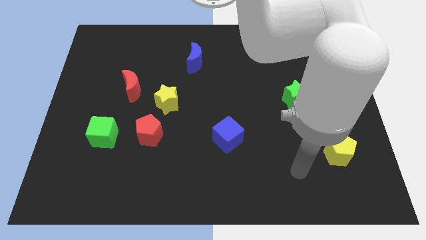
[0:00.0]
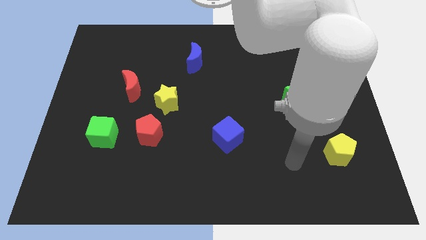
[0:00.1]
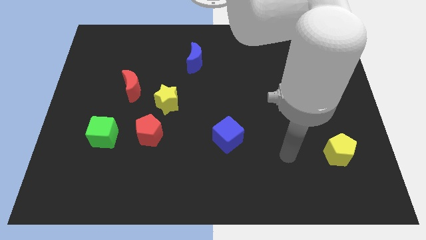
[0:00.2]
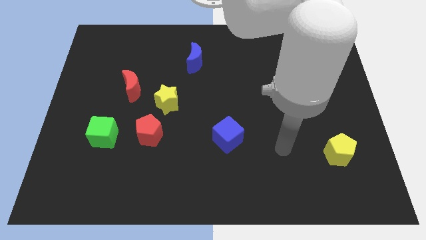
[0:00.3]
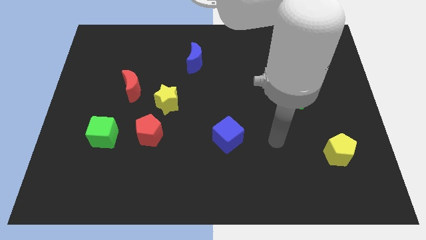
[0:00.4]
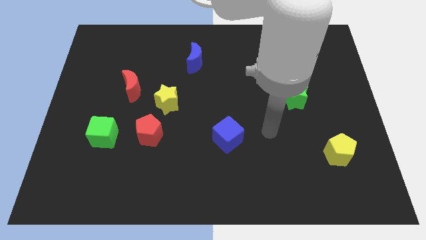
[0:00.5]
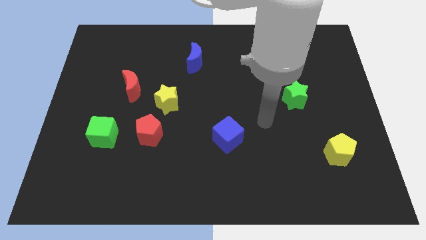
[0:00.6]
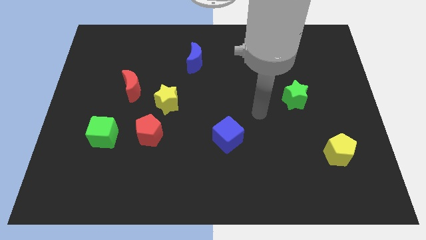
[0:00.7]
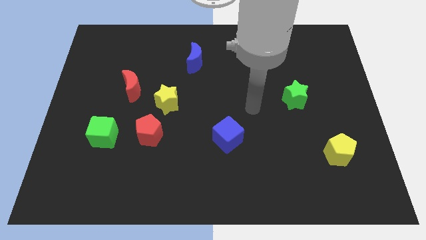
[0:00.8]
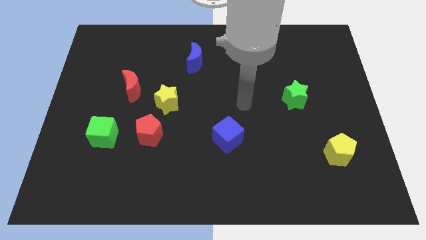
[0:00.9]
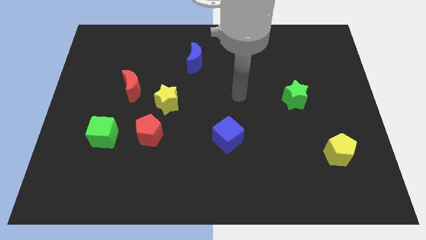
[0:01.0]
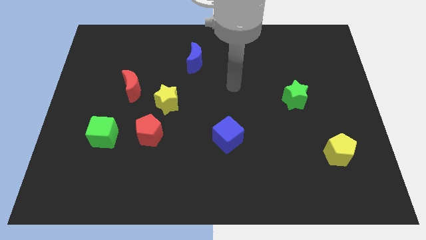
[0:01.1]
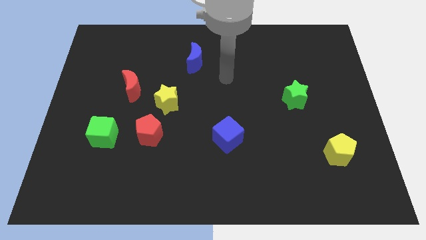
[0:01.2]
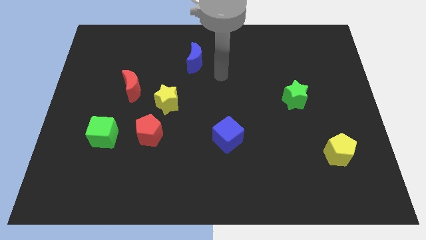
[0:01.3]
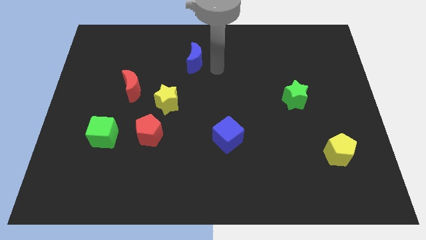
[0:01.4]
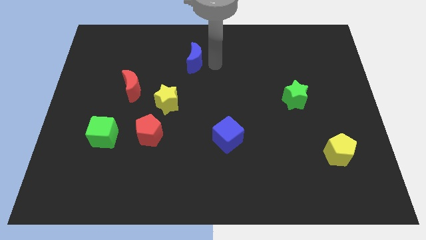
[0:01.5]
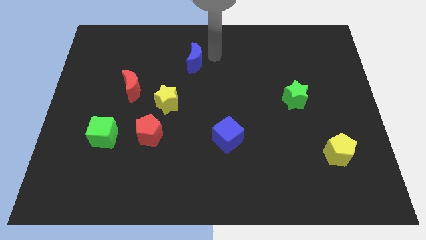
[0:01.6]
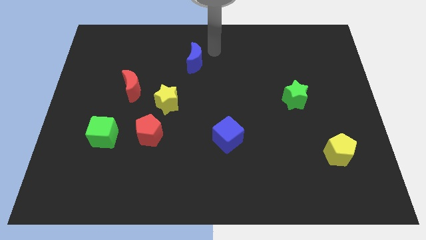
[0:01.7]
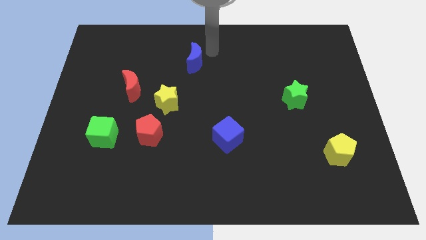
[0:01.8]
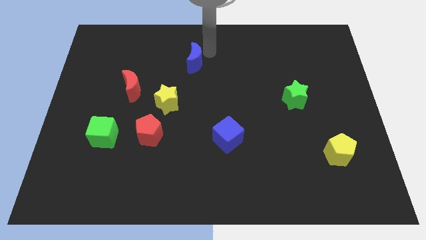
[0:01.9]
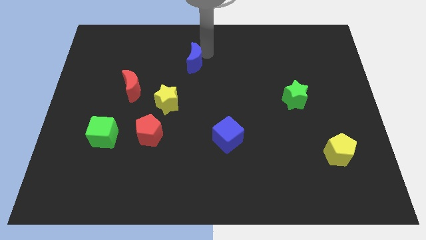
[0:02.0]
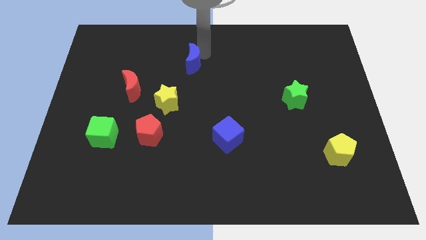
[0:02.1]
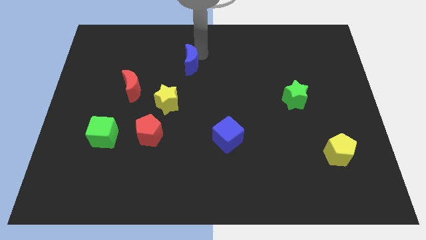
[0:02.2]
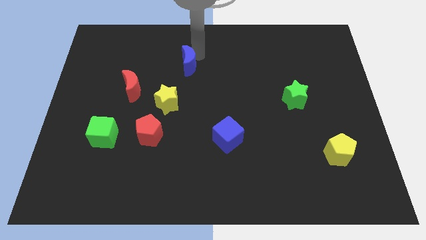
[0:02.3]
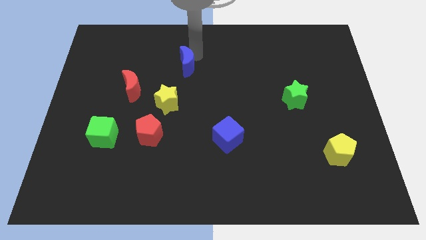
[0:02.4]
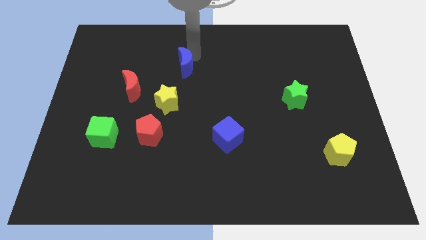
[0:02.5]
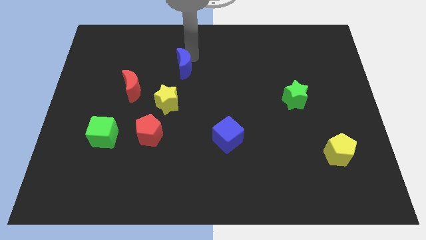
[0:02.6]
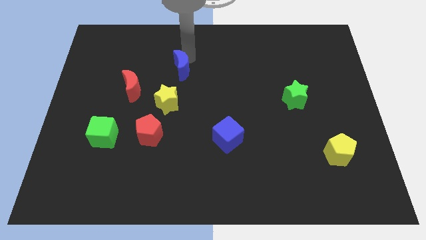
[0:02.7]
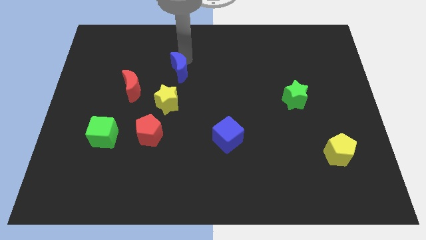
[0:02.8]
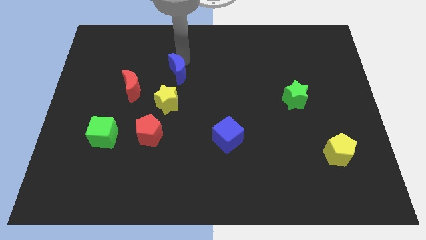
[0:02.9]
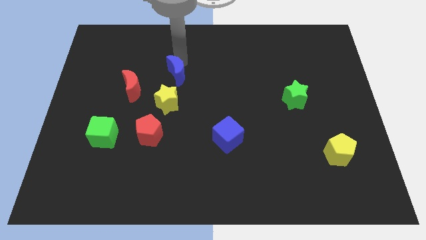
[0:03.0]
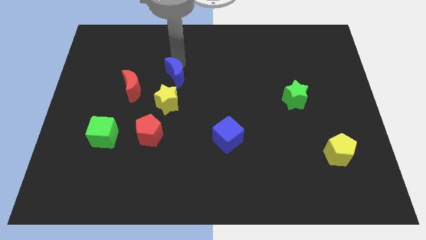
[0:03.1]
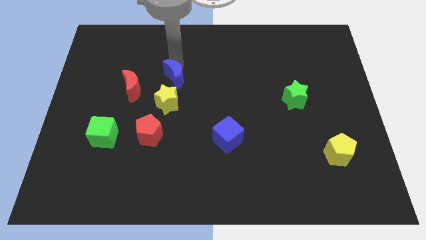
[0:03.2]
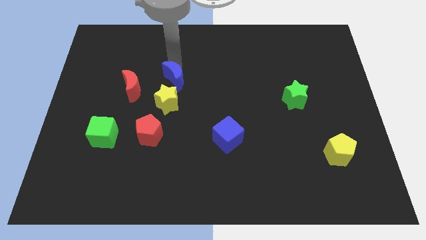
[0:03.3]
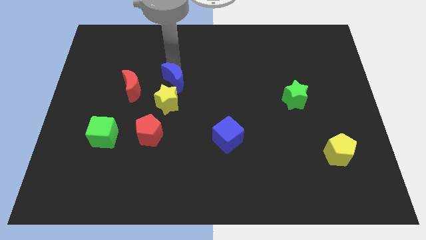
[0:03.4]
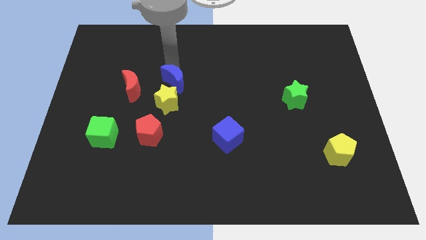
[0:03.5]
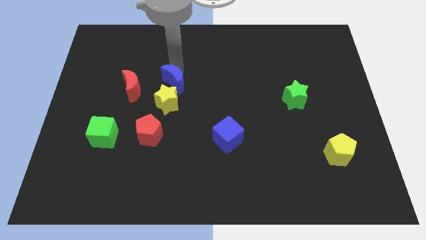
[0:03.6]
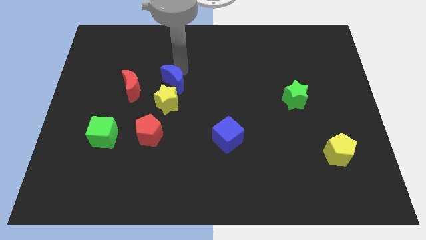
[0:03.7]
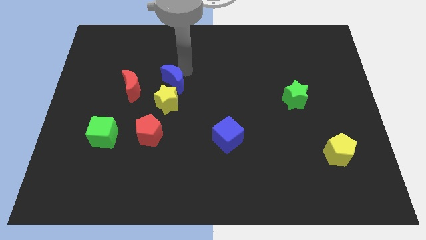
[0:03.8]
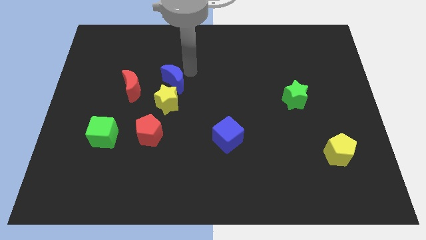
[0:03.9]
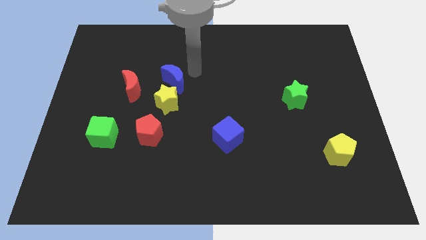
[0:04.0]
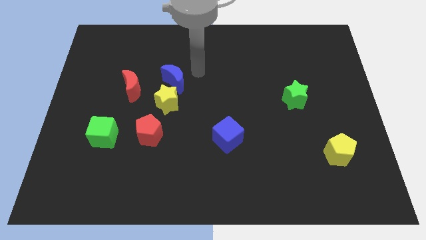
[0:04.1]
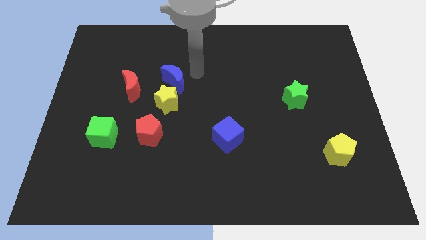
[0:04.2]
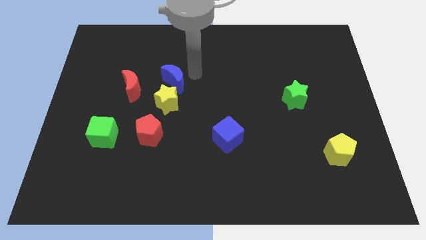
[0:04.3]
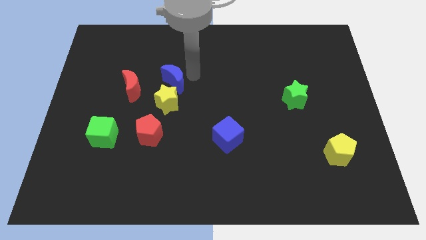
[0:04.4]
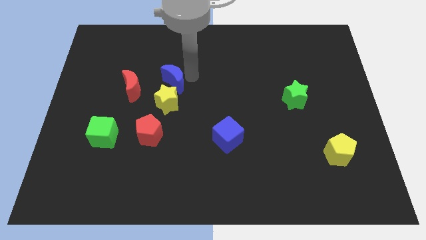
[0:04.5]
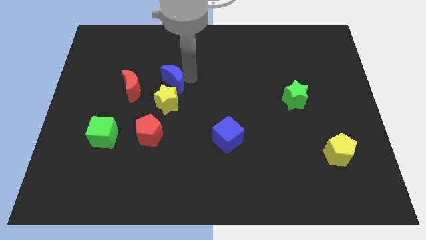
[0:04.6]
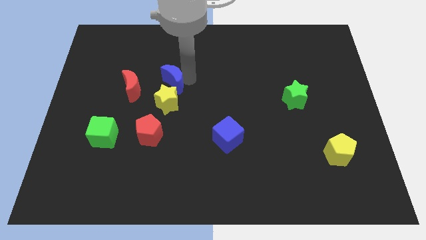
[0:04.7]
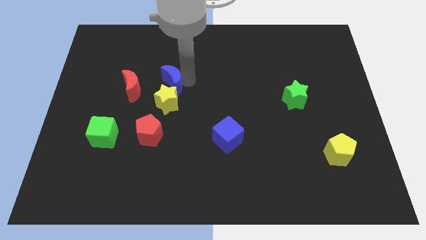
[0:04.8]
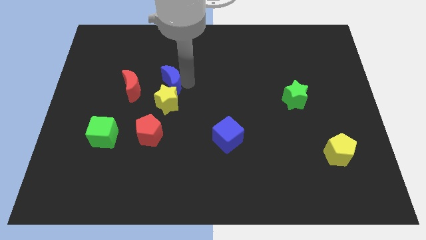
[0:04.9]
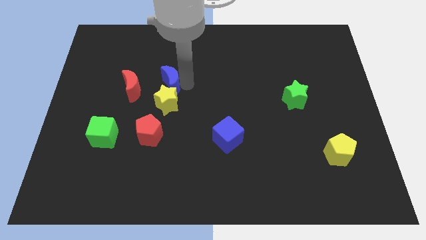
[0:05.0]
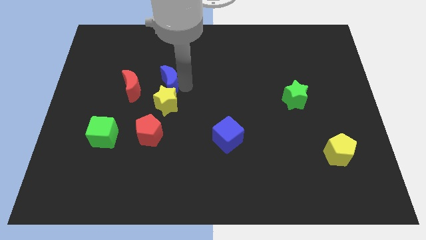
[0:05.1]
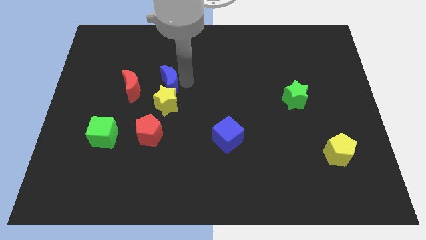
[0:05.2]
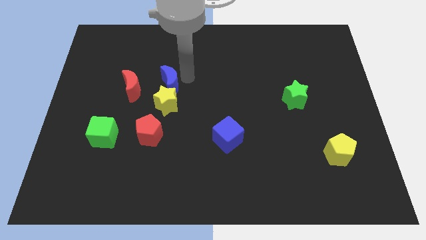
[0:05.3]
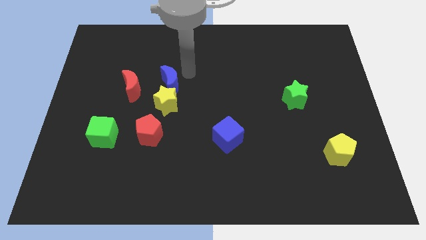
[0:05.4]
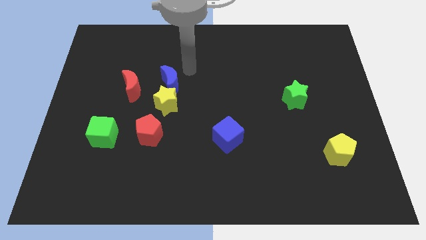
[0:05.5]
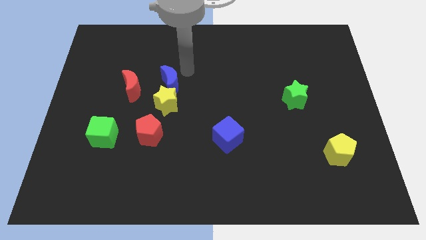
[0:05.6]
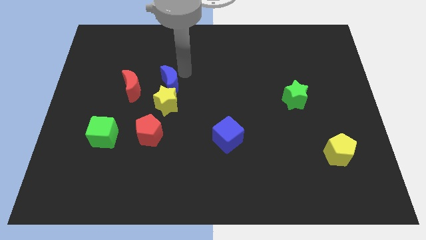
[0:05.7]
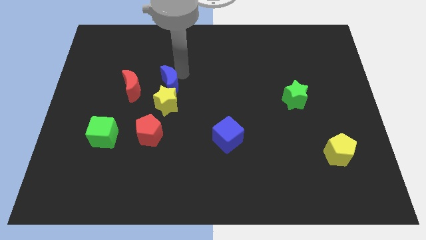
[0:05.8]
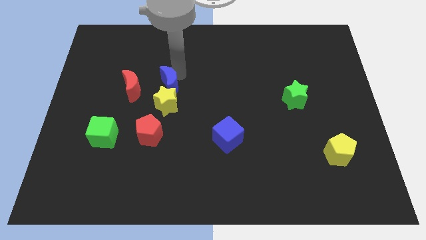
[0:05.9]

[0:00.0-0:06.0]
move the blue moon above the red pentagon

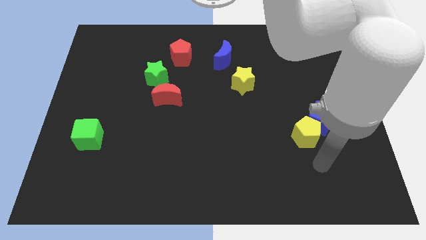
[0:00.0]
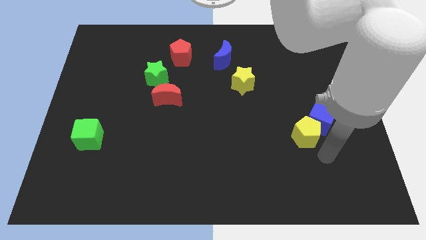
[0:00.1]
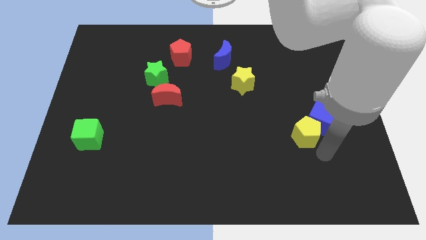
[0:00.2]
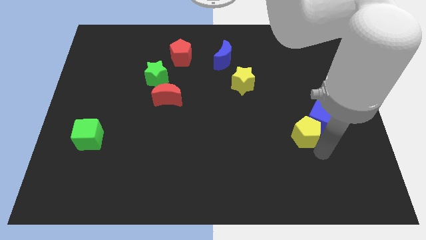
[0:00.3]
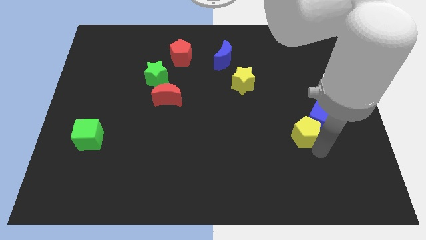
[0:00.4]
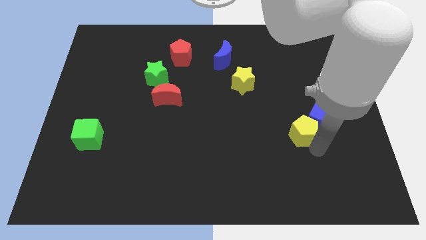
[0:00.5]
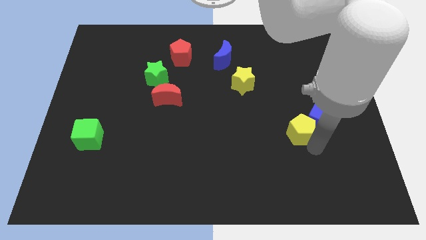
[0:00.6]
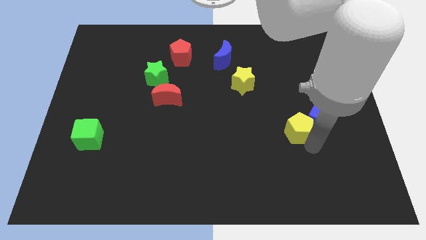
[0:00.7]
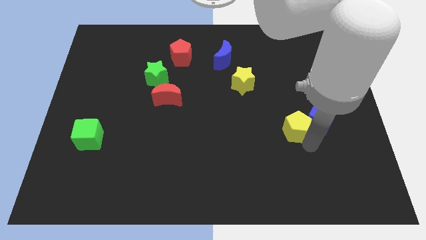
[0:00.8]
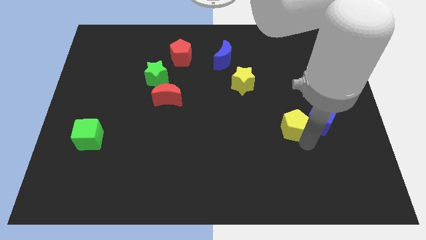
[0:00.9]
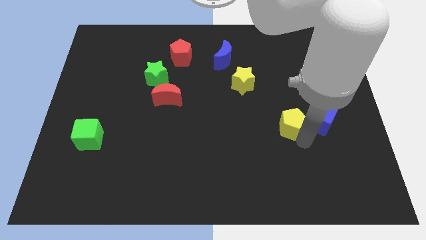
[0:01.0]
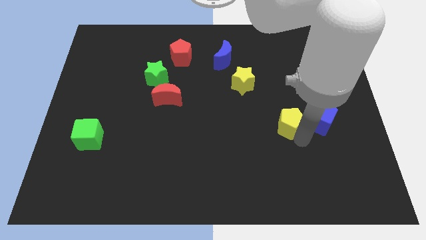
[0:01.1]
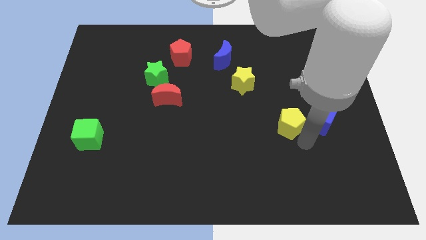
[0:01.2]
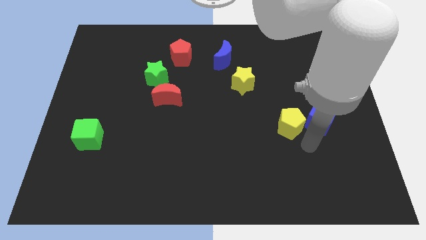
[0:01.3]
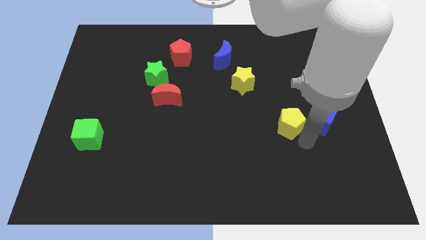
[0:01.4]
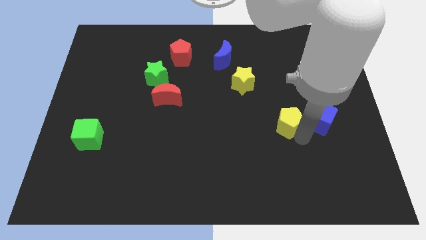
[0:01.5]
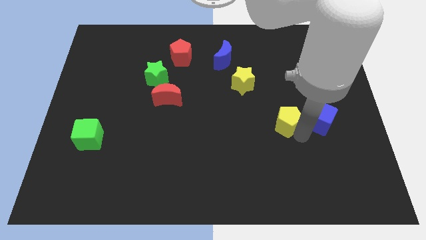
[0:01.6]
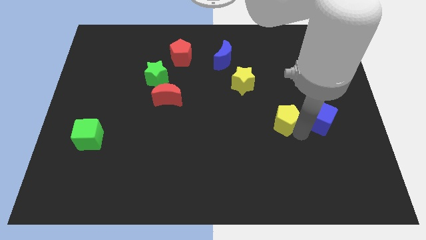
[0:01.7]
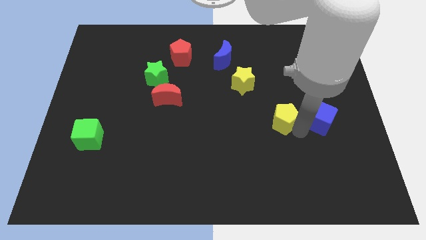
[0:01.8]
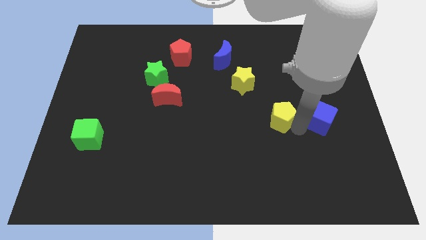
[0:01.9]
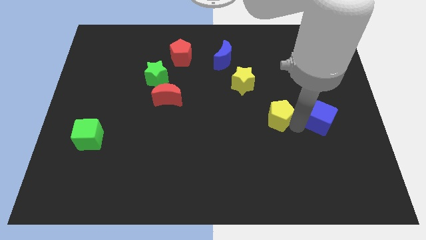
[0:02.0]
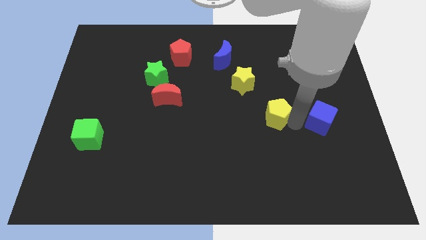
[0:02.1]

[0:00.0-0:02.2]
push the yellow pentagon to the bottom right side of the yellow star
